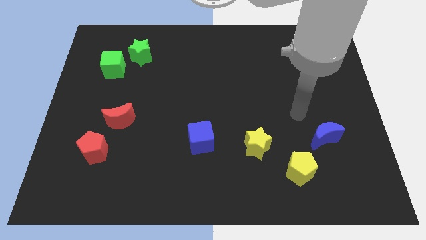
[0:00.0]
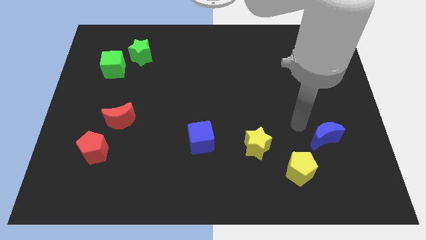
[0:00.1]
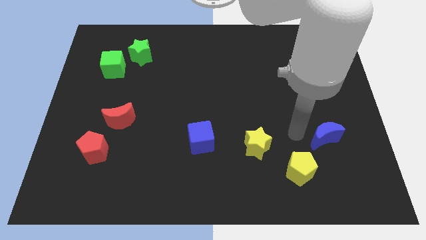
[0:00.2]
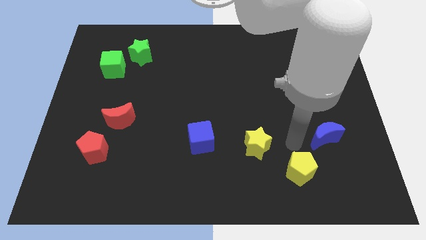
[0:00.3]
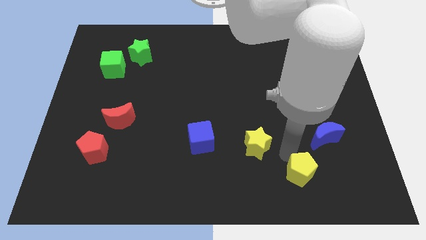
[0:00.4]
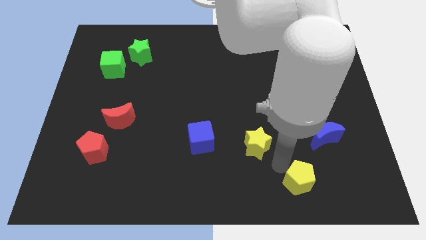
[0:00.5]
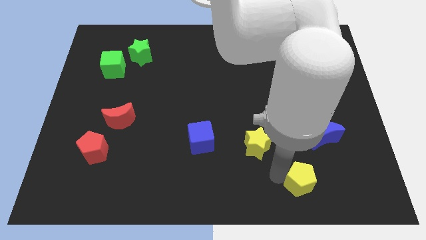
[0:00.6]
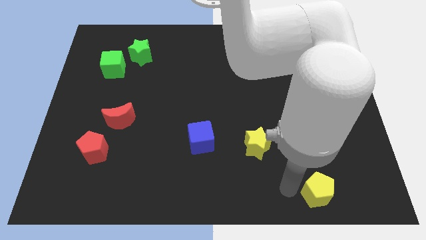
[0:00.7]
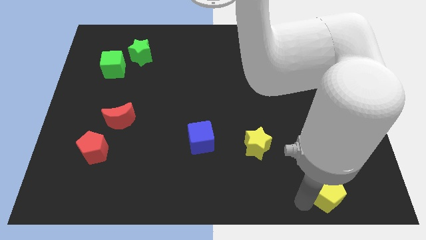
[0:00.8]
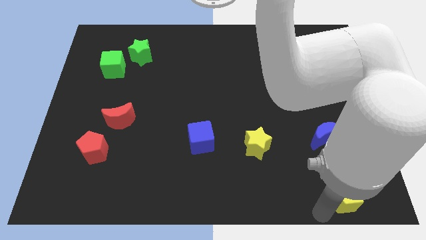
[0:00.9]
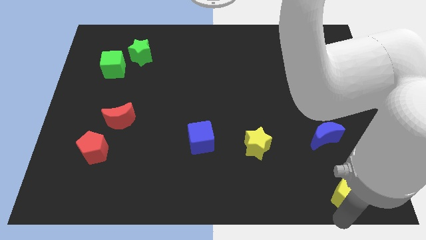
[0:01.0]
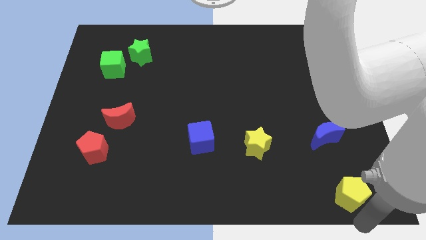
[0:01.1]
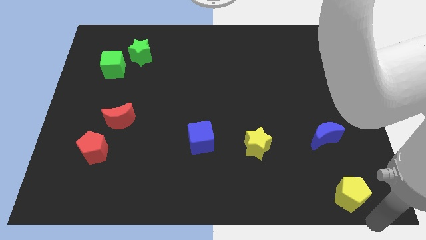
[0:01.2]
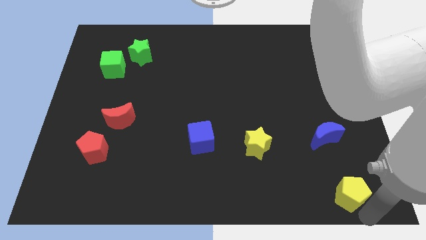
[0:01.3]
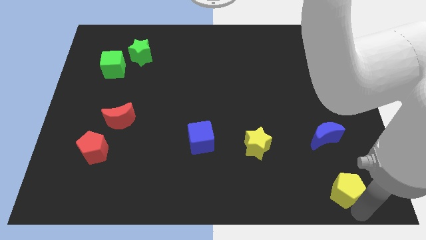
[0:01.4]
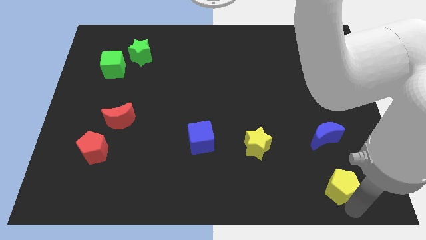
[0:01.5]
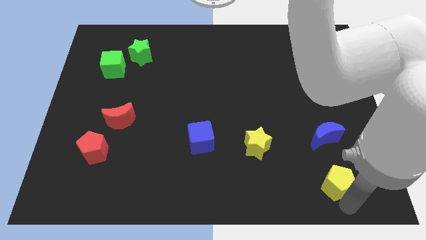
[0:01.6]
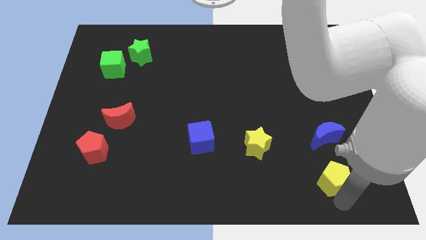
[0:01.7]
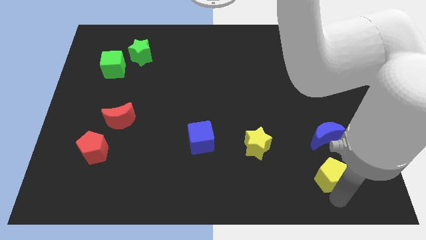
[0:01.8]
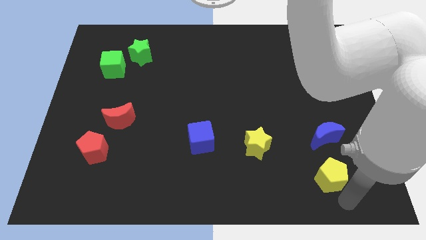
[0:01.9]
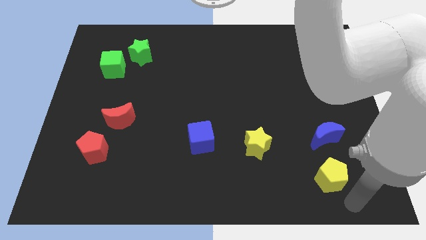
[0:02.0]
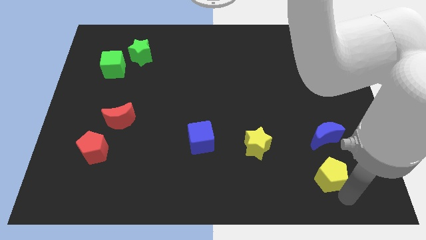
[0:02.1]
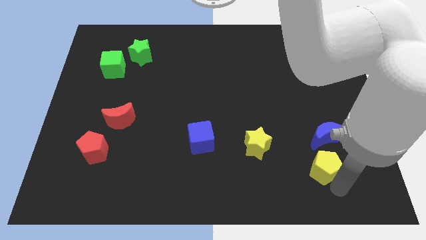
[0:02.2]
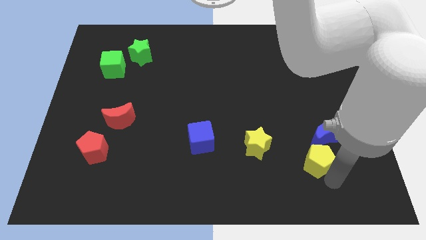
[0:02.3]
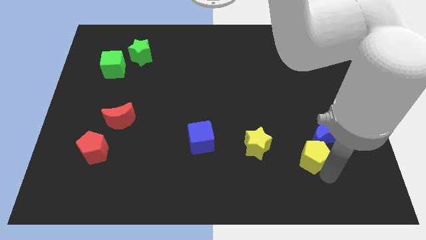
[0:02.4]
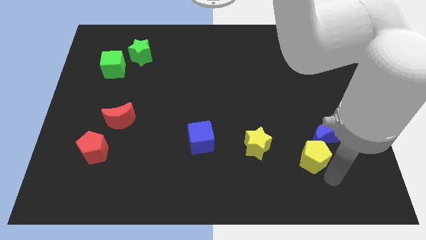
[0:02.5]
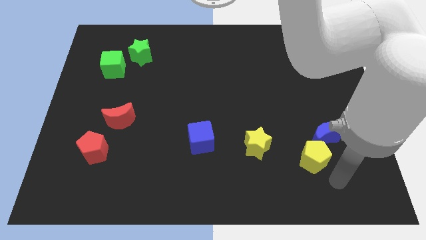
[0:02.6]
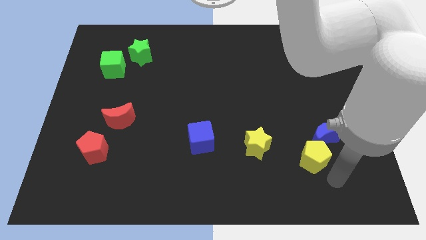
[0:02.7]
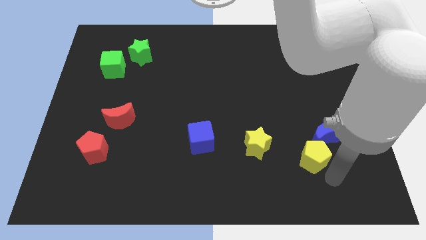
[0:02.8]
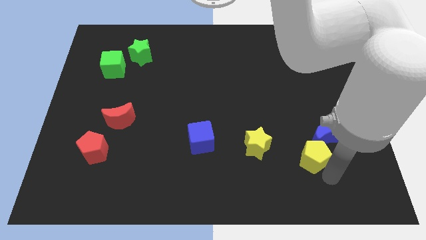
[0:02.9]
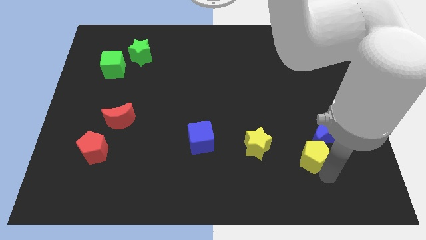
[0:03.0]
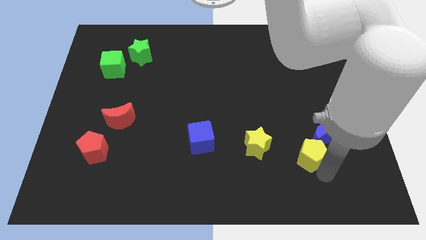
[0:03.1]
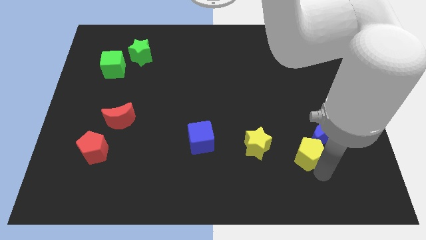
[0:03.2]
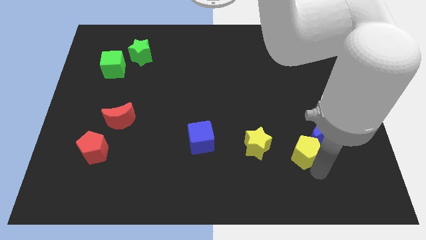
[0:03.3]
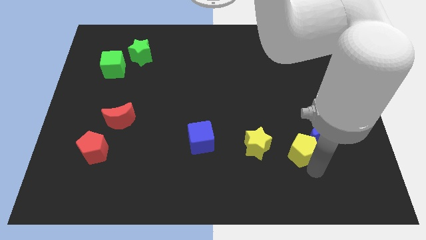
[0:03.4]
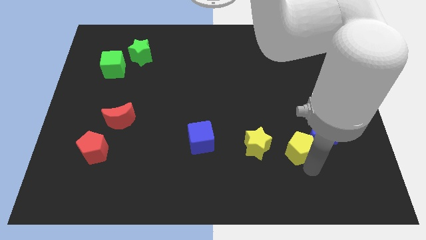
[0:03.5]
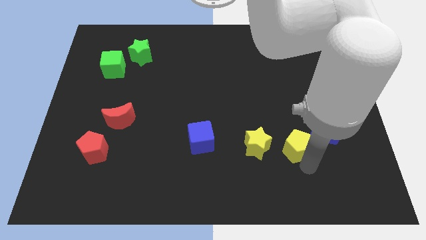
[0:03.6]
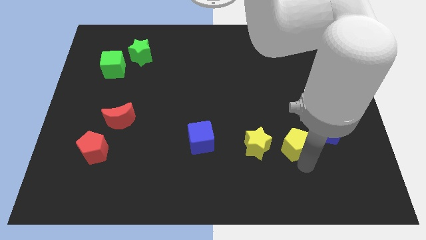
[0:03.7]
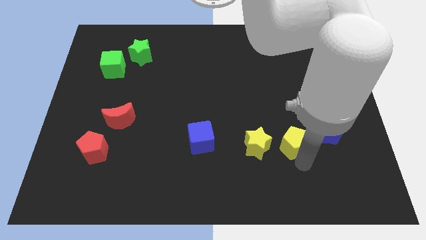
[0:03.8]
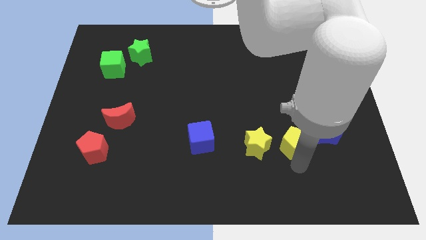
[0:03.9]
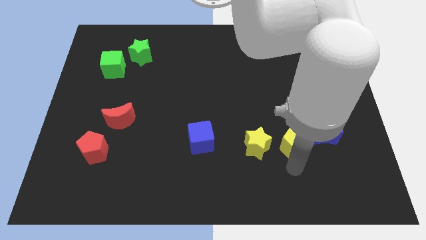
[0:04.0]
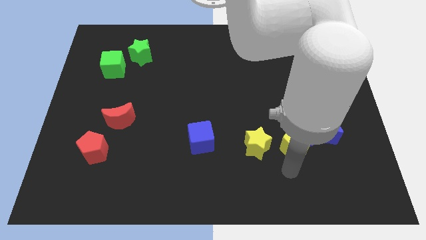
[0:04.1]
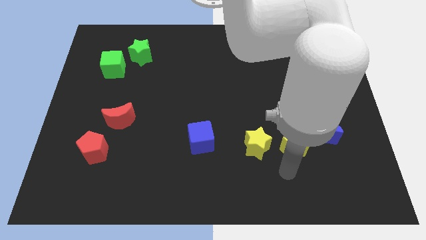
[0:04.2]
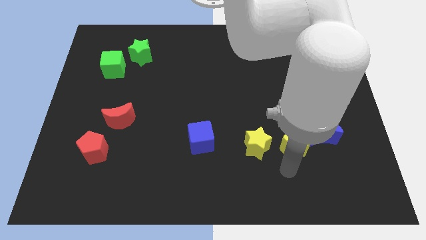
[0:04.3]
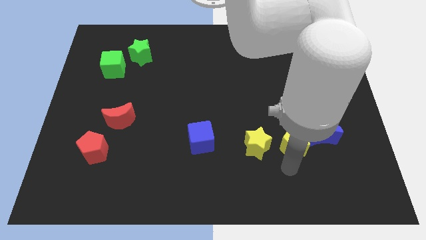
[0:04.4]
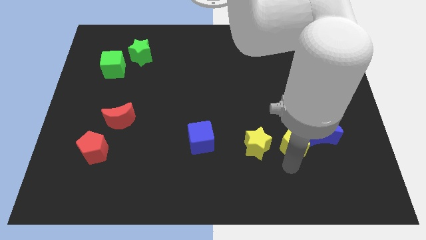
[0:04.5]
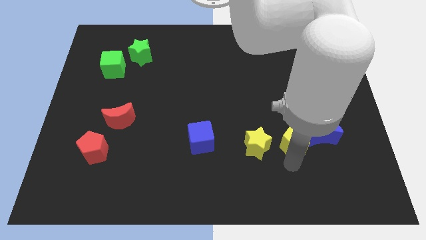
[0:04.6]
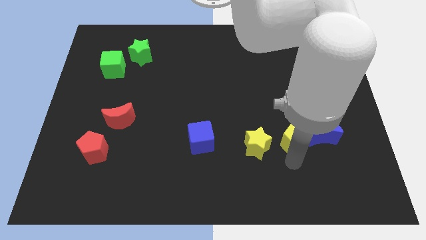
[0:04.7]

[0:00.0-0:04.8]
push the yellow pentagon upwards somewhat

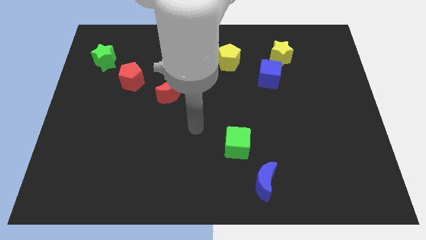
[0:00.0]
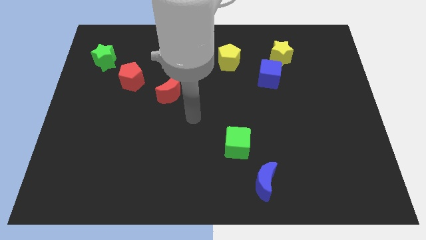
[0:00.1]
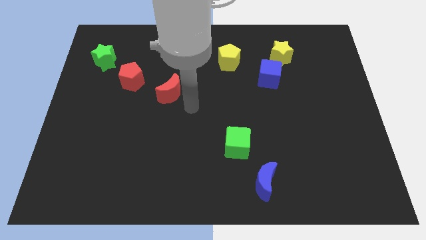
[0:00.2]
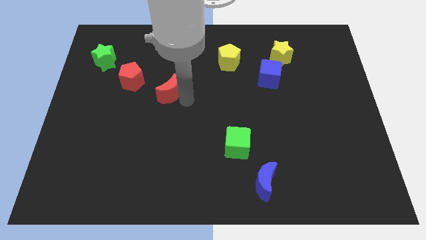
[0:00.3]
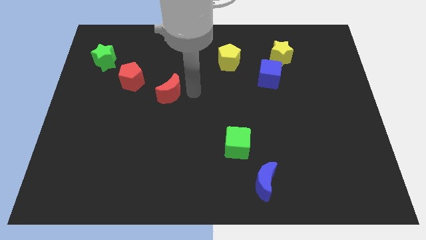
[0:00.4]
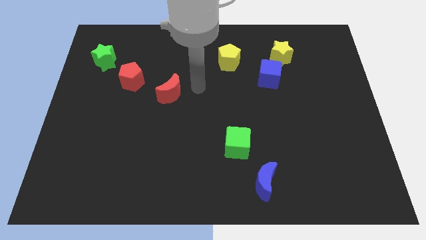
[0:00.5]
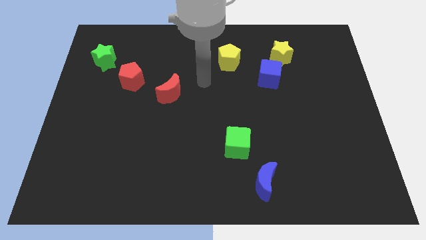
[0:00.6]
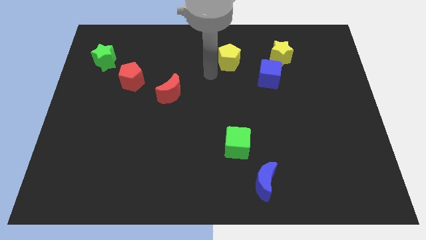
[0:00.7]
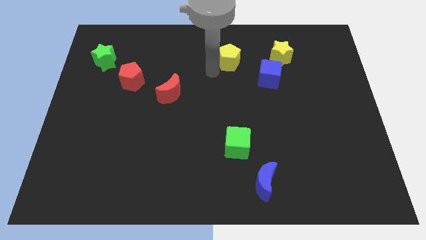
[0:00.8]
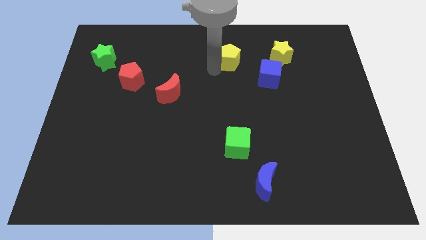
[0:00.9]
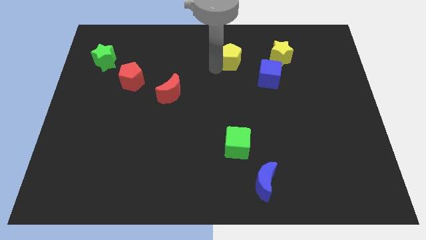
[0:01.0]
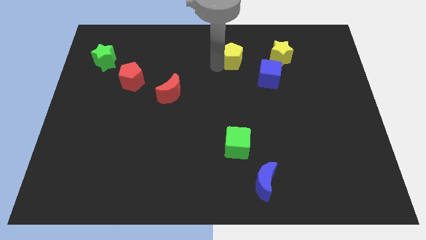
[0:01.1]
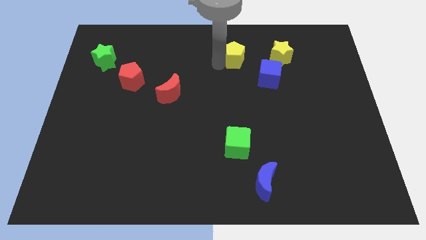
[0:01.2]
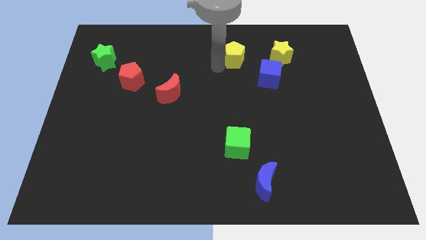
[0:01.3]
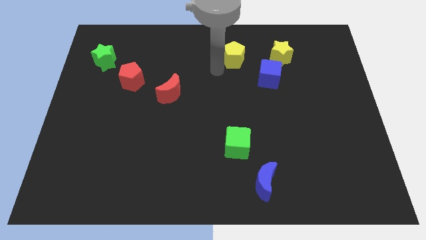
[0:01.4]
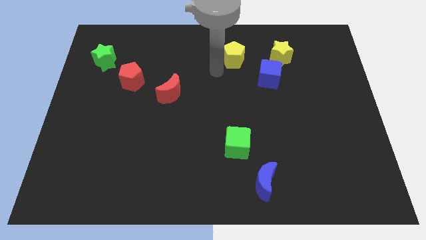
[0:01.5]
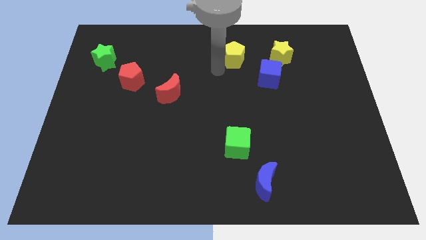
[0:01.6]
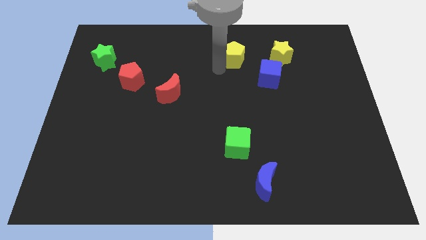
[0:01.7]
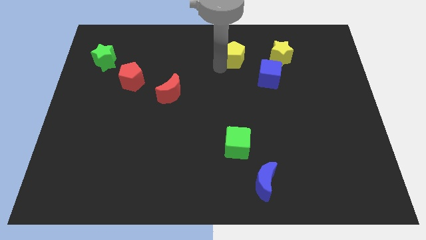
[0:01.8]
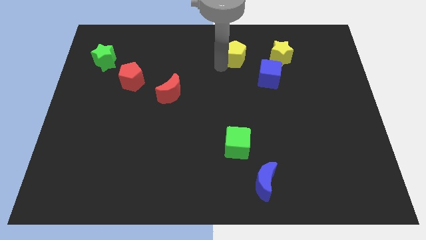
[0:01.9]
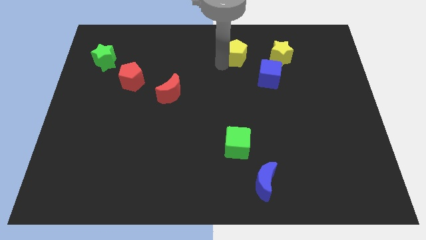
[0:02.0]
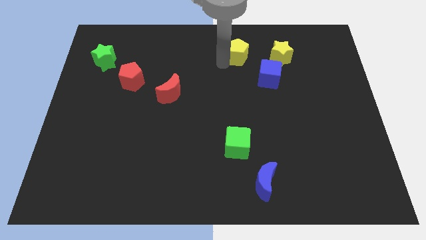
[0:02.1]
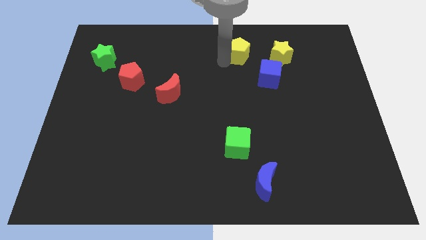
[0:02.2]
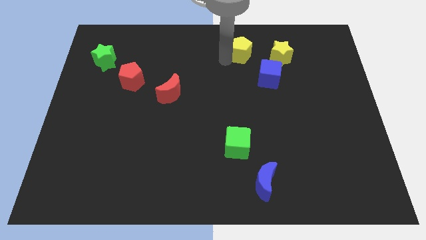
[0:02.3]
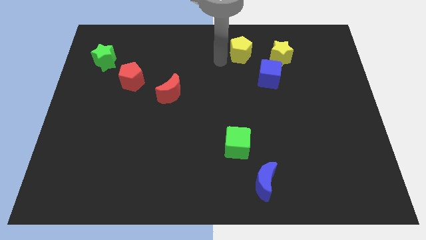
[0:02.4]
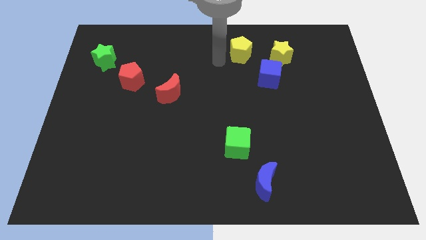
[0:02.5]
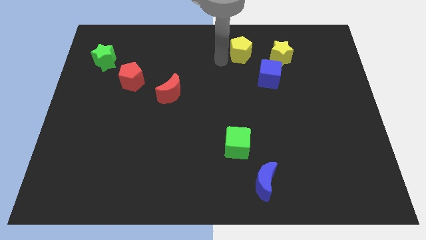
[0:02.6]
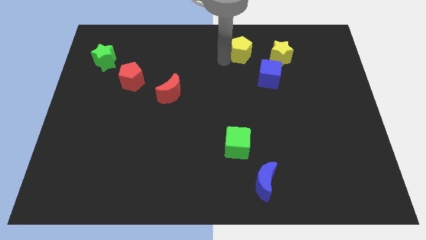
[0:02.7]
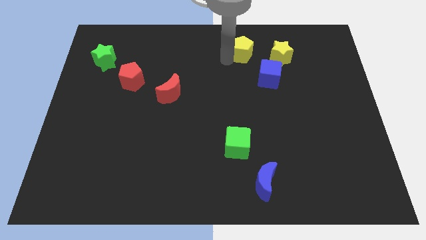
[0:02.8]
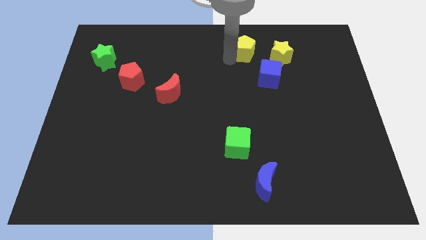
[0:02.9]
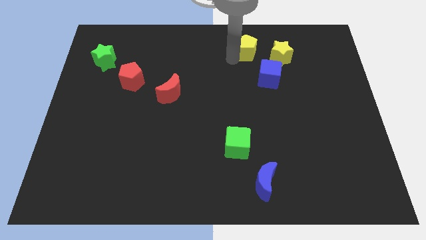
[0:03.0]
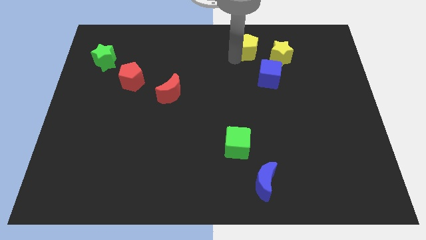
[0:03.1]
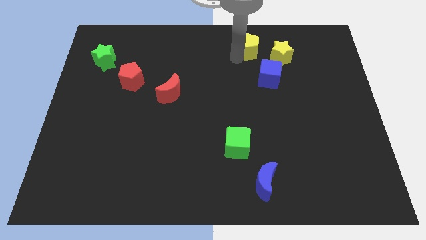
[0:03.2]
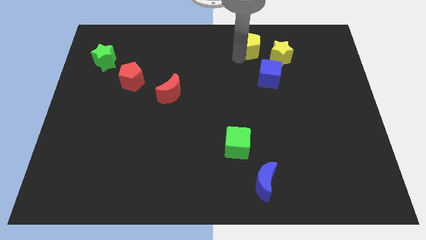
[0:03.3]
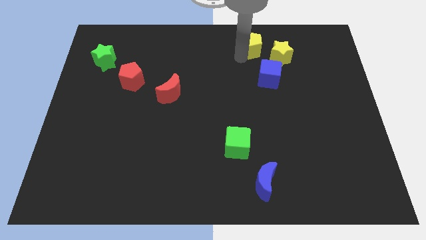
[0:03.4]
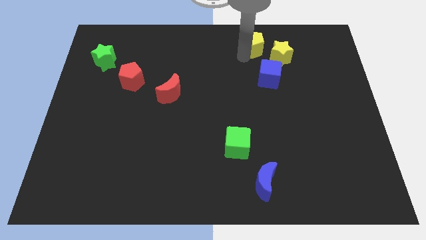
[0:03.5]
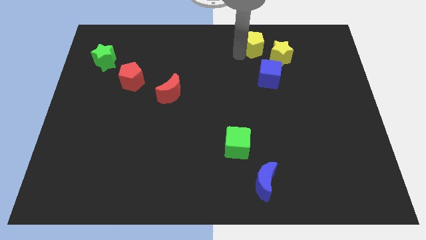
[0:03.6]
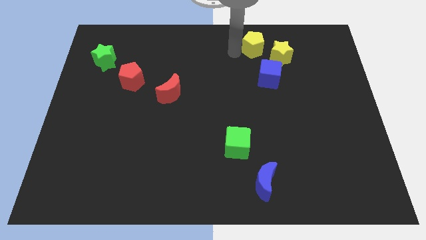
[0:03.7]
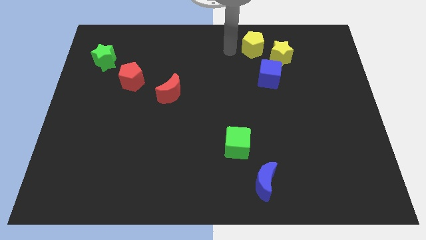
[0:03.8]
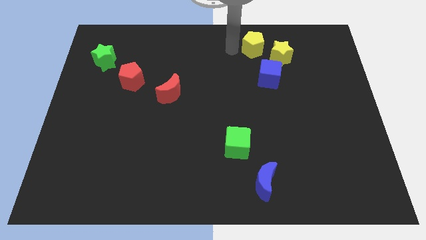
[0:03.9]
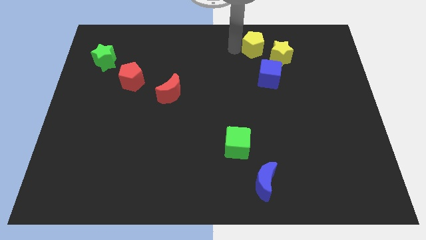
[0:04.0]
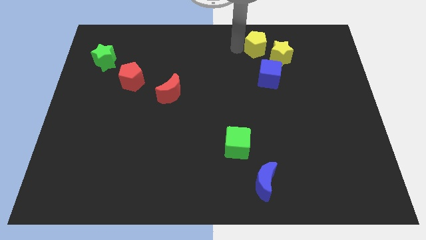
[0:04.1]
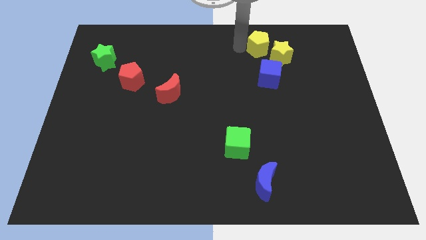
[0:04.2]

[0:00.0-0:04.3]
slightly push the yellow pentagon to the right
